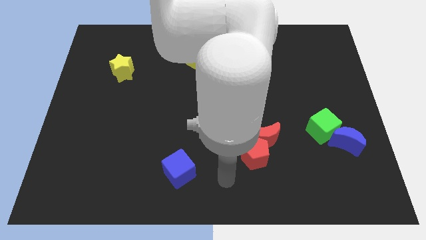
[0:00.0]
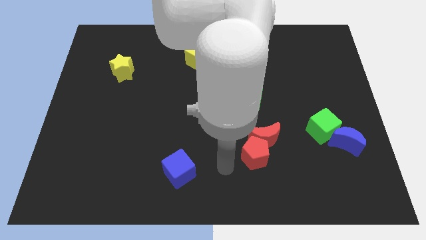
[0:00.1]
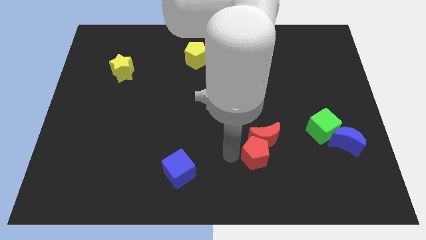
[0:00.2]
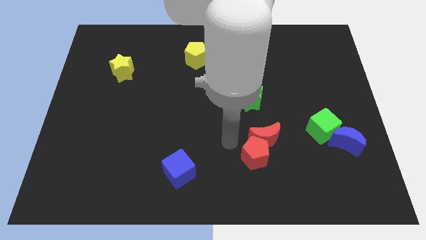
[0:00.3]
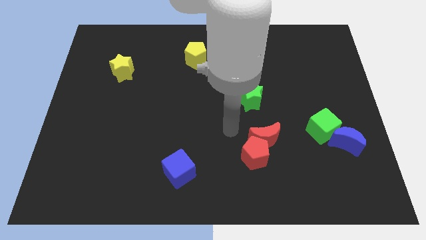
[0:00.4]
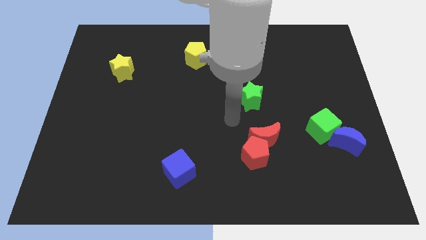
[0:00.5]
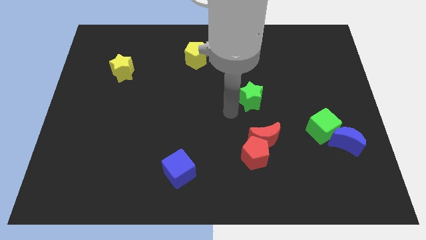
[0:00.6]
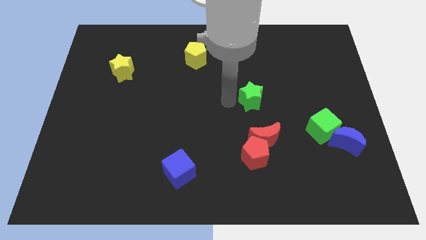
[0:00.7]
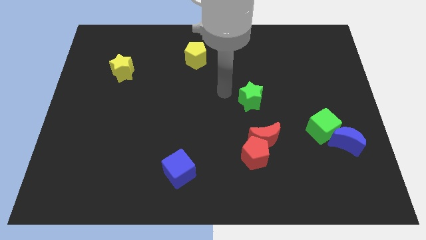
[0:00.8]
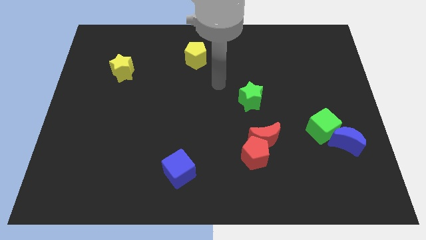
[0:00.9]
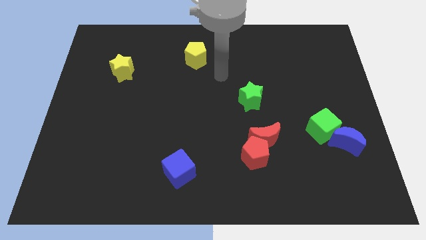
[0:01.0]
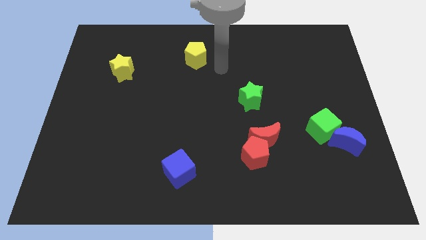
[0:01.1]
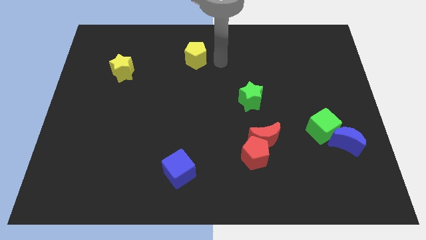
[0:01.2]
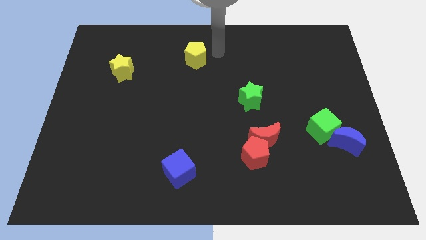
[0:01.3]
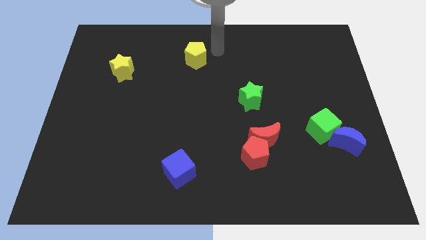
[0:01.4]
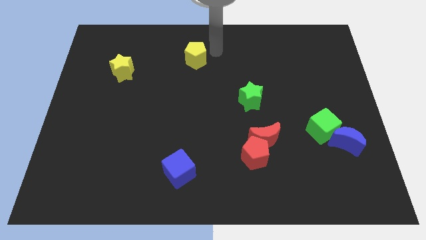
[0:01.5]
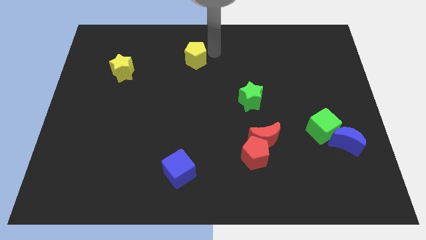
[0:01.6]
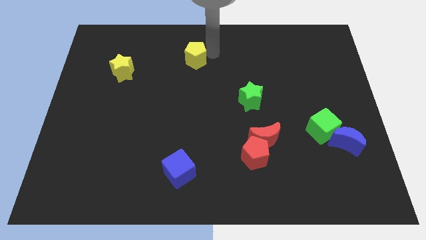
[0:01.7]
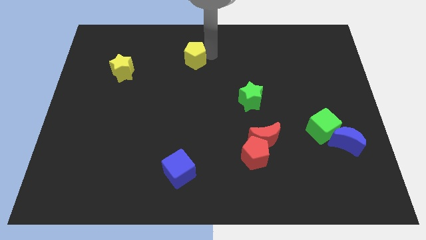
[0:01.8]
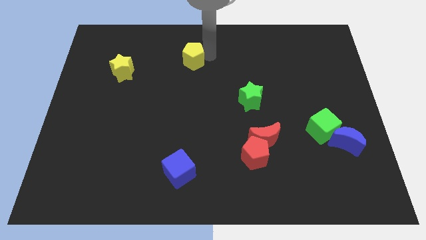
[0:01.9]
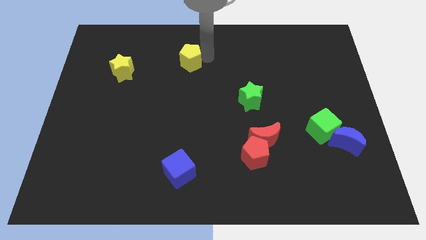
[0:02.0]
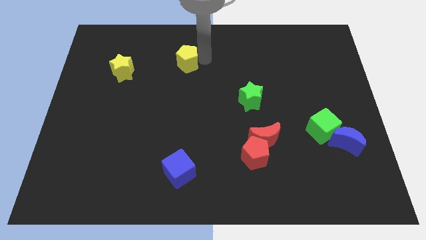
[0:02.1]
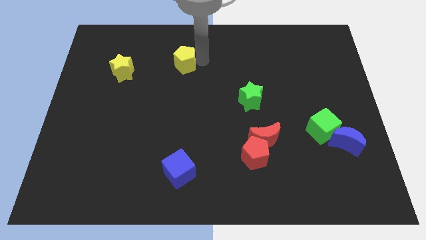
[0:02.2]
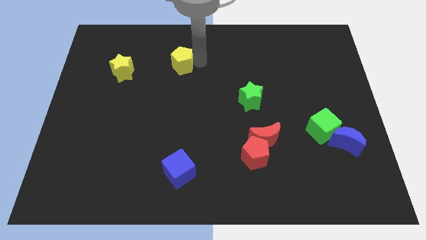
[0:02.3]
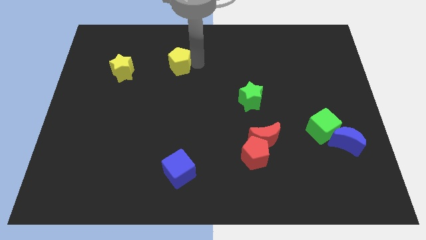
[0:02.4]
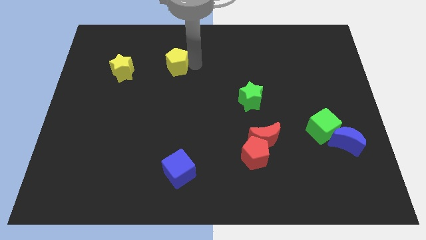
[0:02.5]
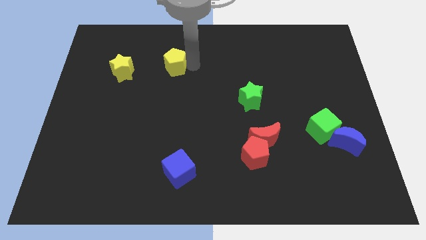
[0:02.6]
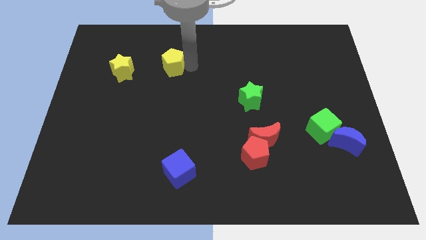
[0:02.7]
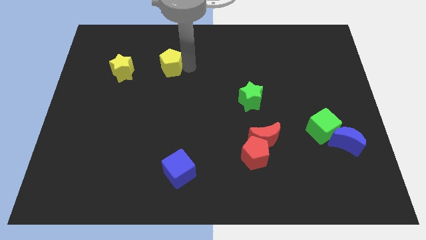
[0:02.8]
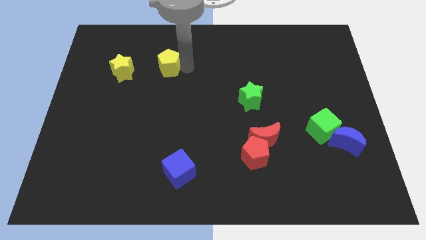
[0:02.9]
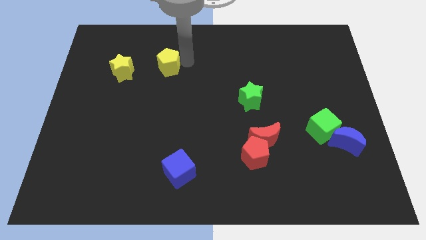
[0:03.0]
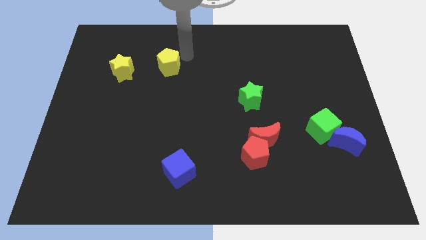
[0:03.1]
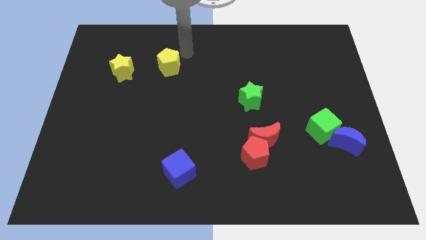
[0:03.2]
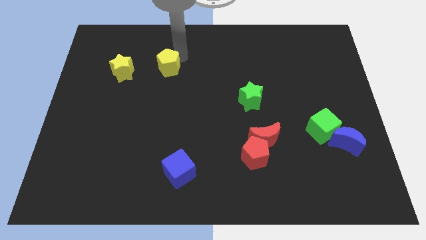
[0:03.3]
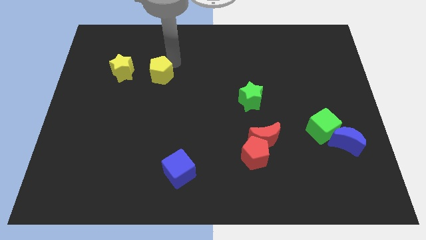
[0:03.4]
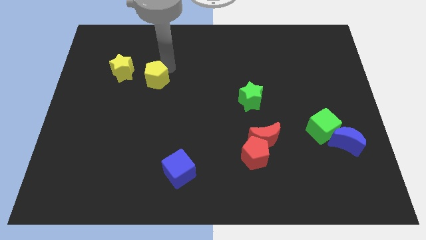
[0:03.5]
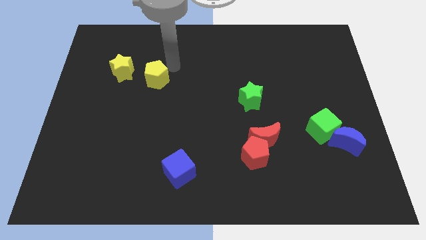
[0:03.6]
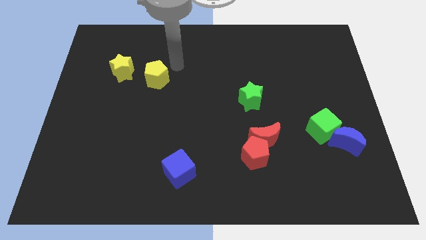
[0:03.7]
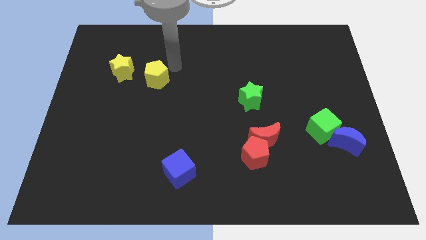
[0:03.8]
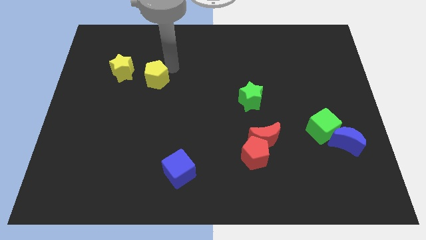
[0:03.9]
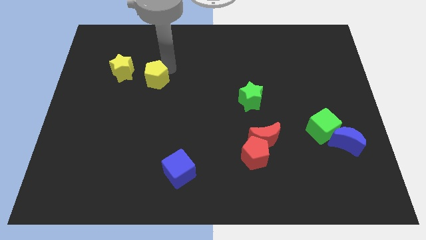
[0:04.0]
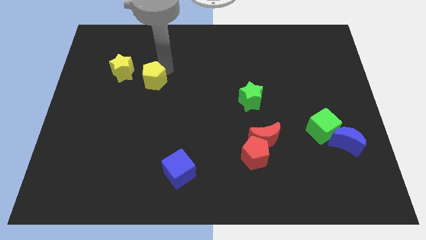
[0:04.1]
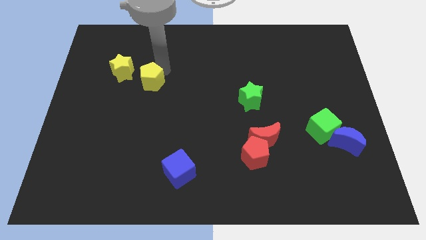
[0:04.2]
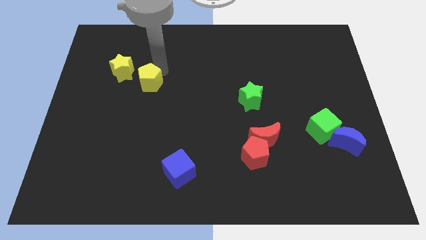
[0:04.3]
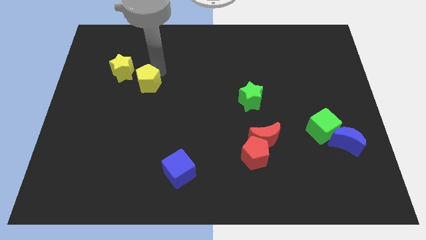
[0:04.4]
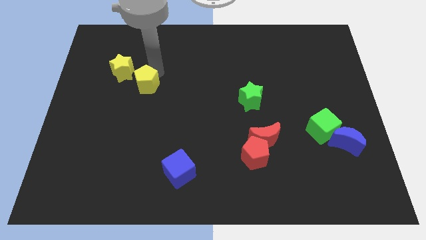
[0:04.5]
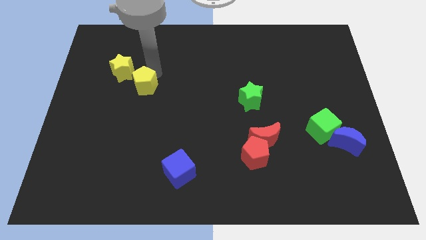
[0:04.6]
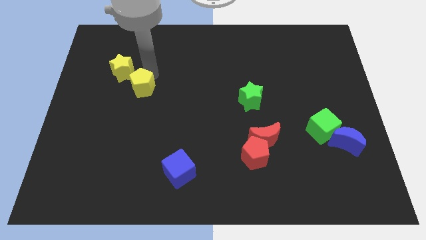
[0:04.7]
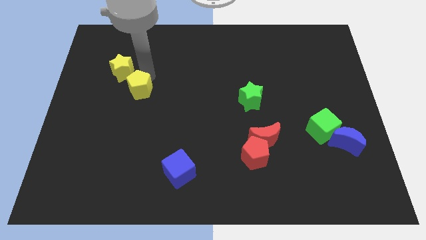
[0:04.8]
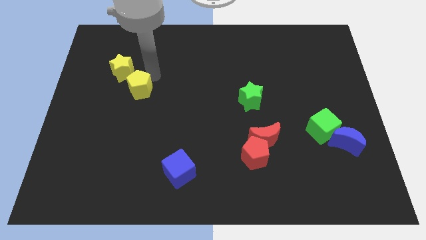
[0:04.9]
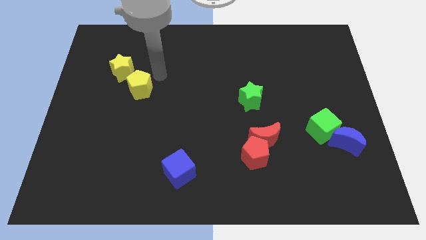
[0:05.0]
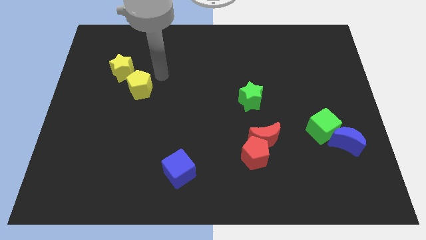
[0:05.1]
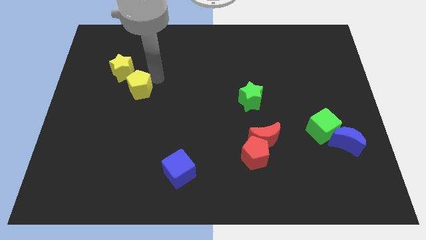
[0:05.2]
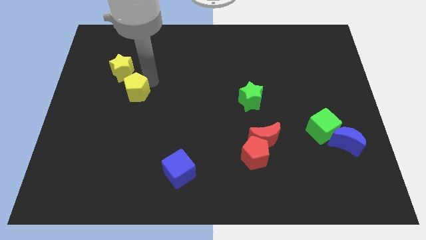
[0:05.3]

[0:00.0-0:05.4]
put the yellow pentagon below the yellow star

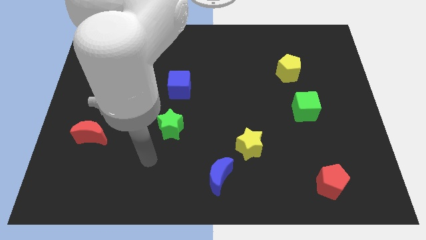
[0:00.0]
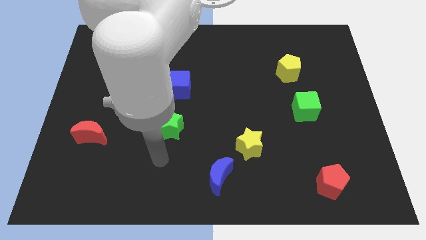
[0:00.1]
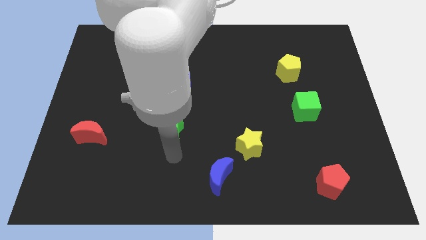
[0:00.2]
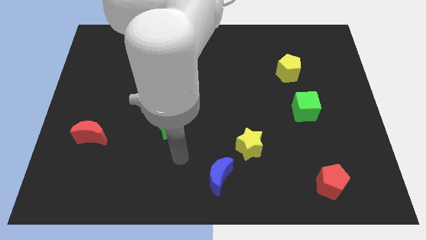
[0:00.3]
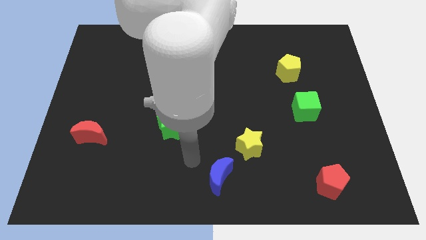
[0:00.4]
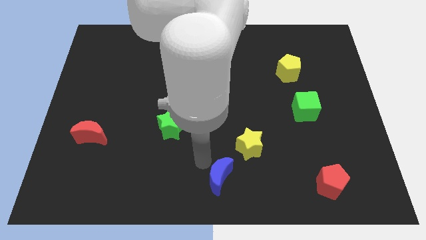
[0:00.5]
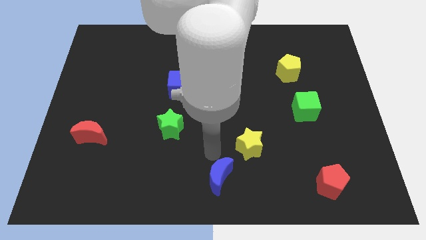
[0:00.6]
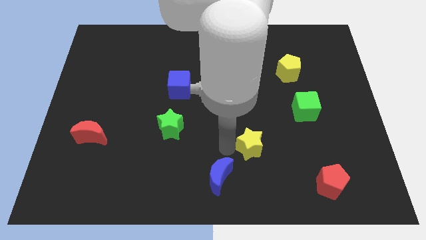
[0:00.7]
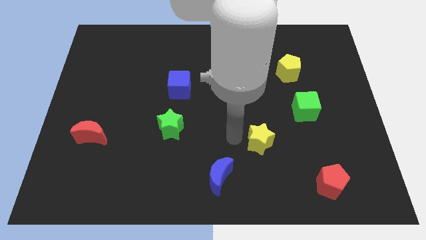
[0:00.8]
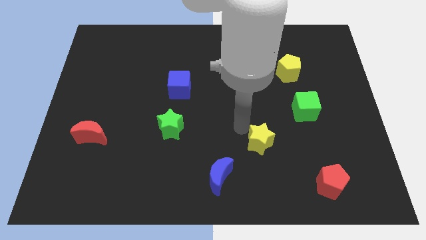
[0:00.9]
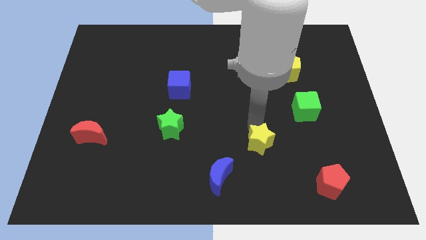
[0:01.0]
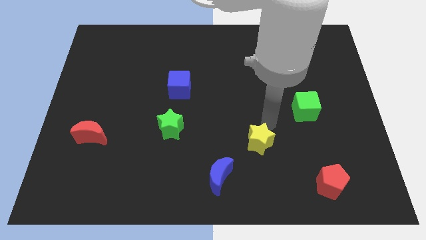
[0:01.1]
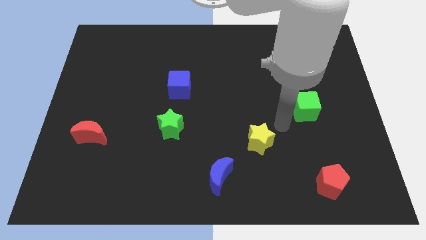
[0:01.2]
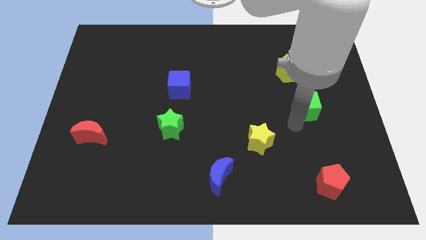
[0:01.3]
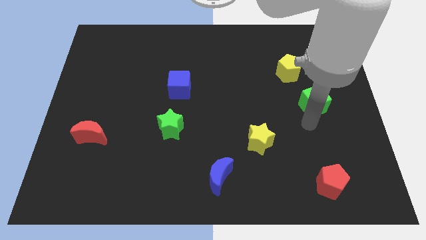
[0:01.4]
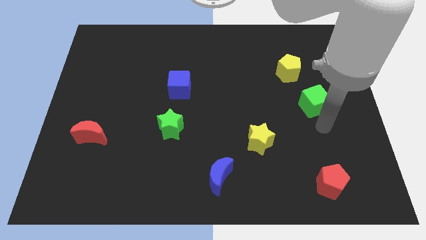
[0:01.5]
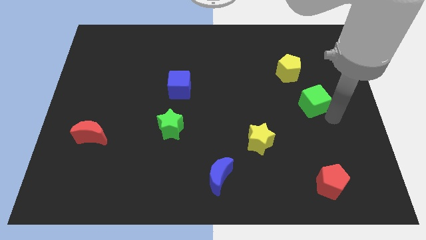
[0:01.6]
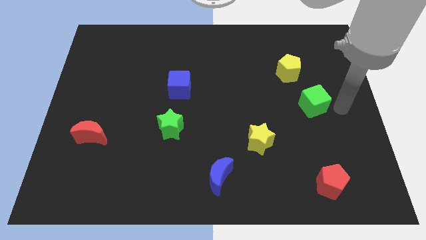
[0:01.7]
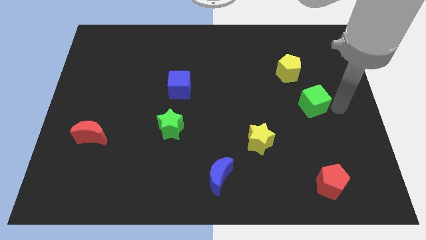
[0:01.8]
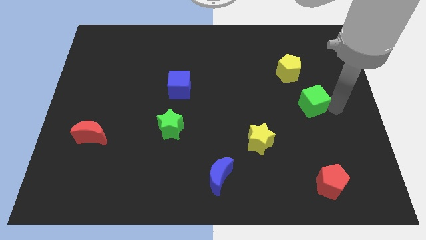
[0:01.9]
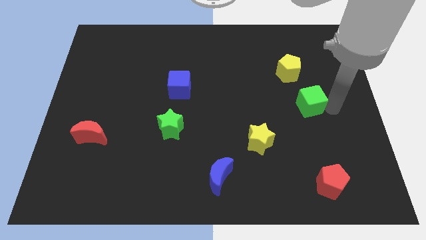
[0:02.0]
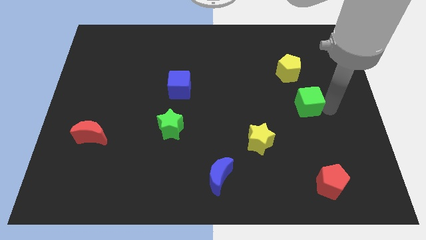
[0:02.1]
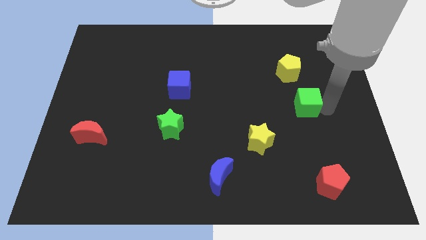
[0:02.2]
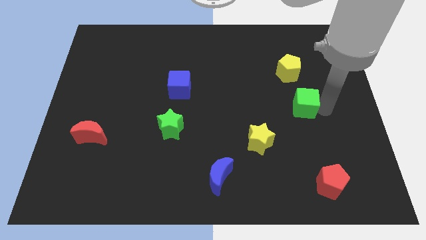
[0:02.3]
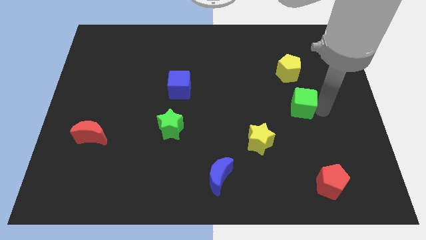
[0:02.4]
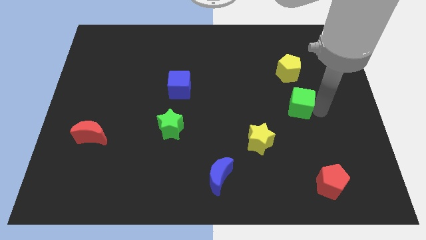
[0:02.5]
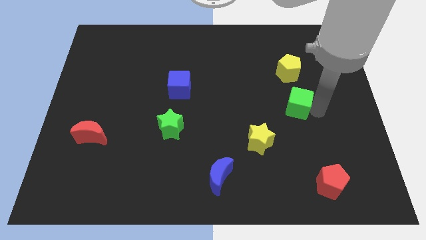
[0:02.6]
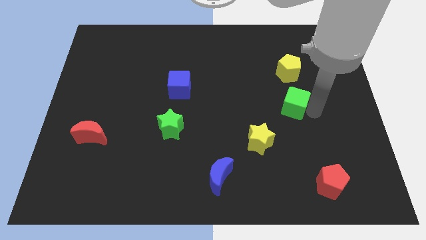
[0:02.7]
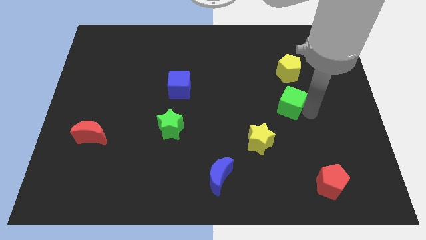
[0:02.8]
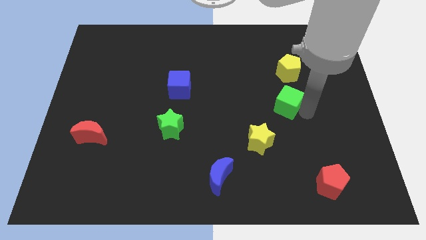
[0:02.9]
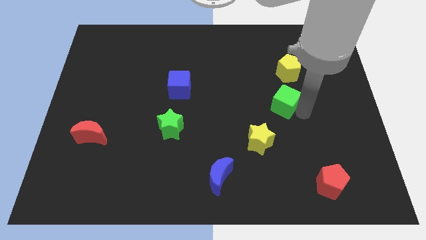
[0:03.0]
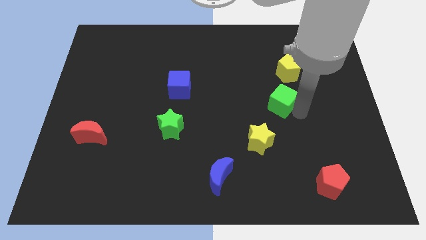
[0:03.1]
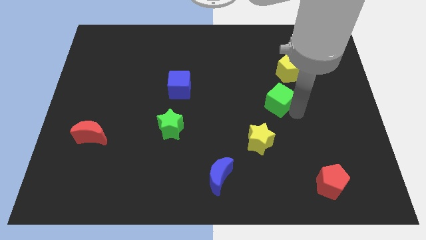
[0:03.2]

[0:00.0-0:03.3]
put the green cube diagonally down and to the left of the yellow pentagon
